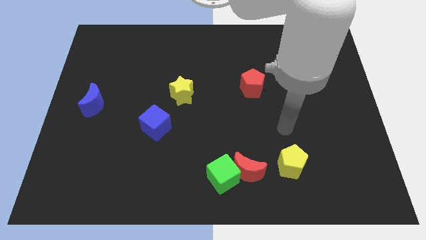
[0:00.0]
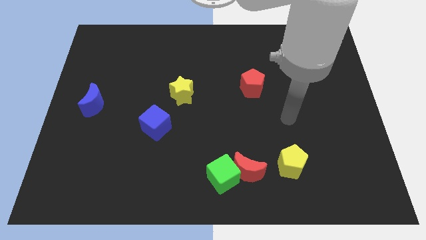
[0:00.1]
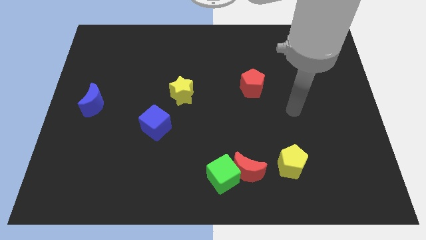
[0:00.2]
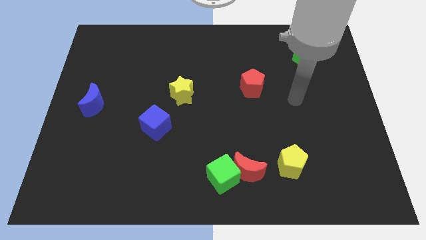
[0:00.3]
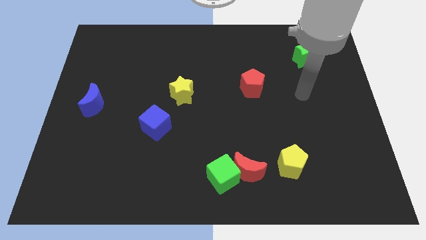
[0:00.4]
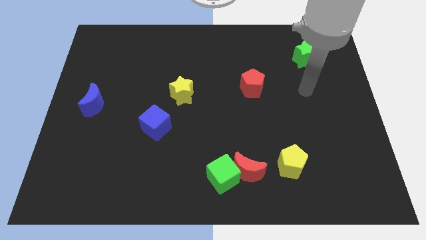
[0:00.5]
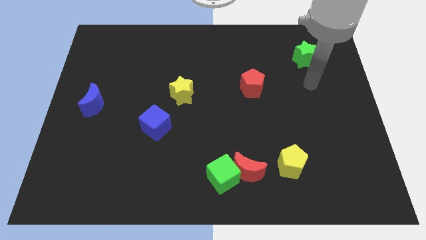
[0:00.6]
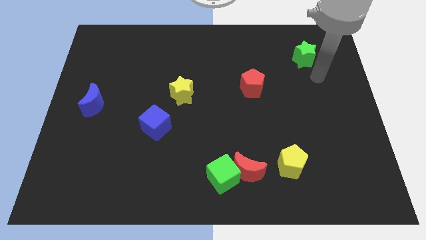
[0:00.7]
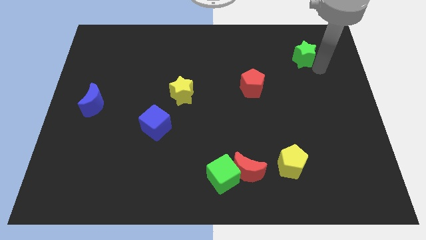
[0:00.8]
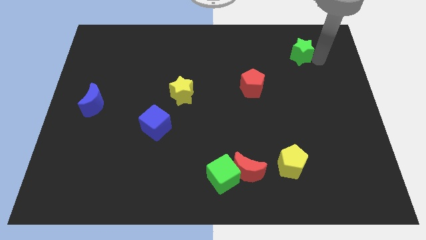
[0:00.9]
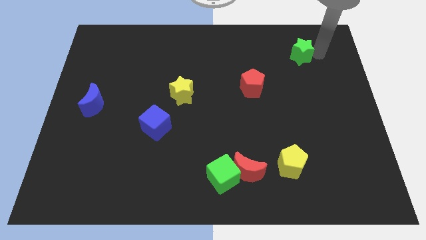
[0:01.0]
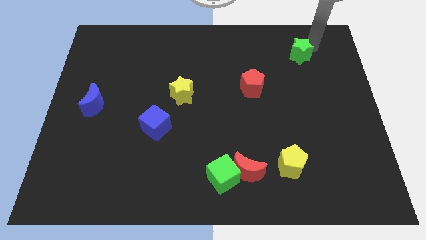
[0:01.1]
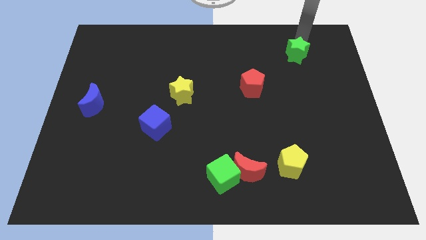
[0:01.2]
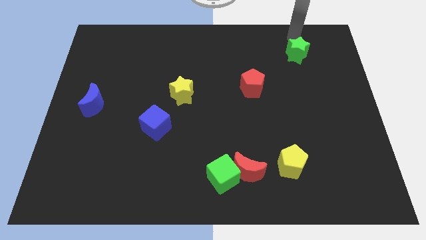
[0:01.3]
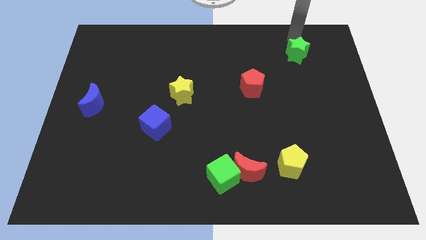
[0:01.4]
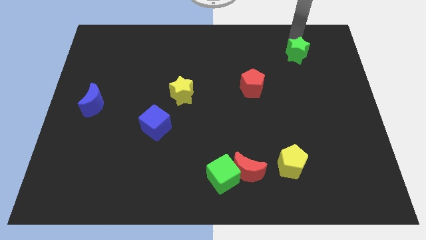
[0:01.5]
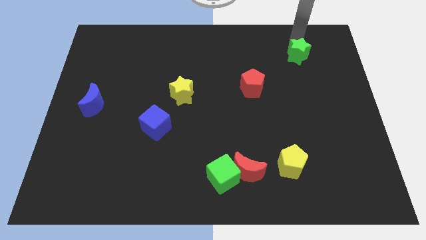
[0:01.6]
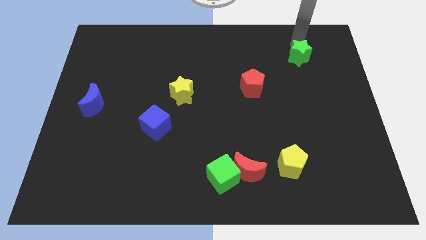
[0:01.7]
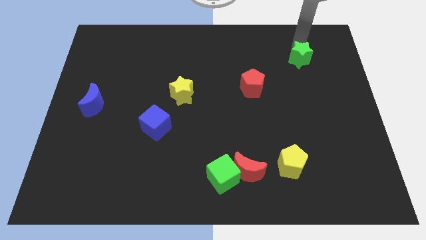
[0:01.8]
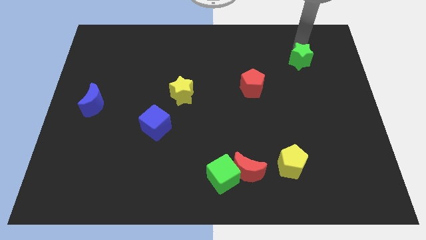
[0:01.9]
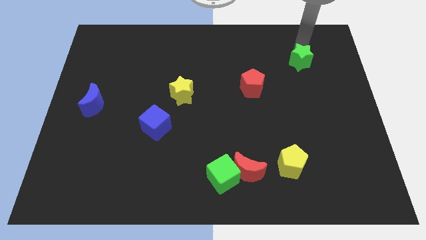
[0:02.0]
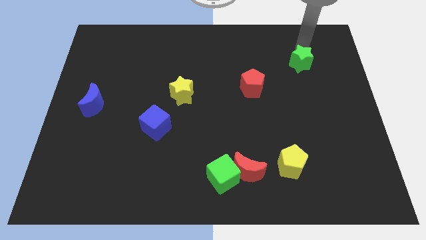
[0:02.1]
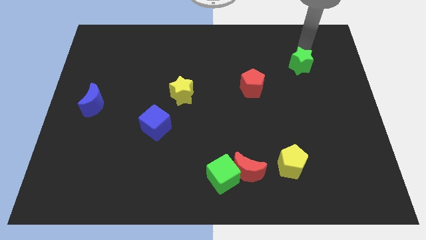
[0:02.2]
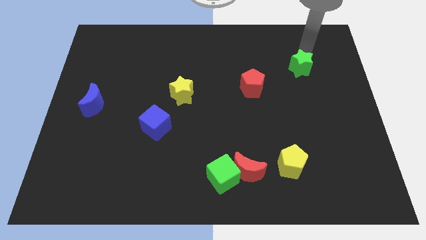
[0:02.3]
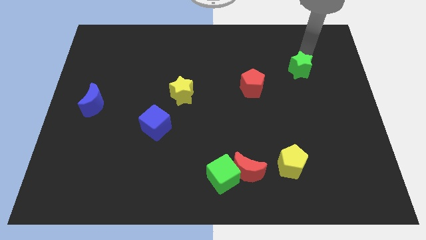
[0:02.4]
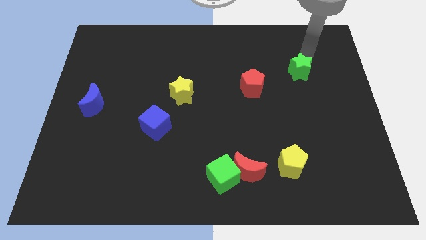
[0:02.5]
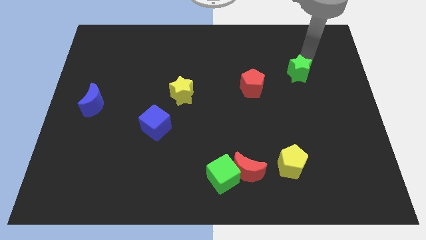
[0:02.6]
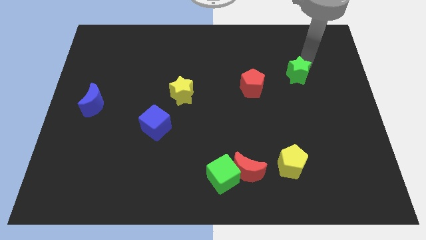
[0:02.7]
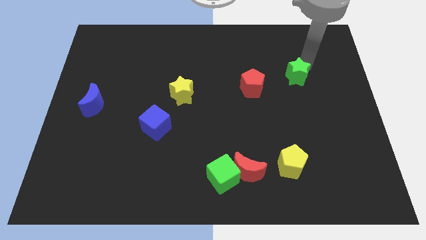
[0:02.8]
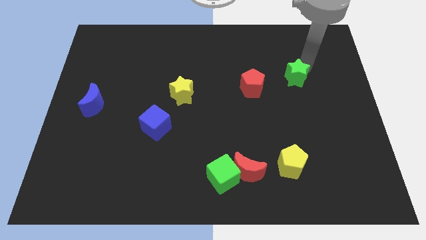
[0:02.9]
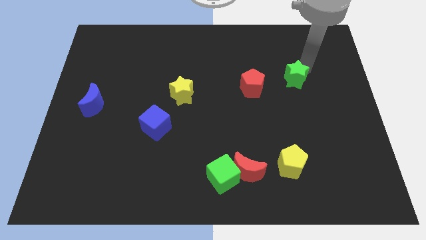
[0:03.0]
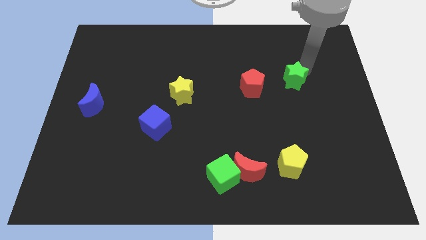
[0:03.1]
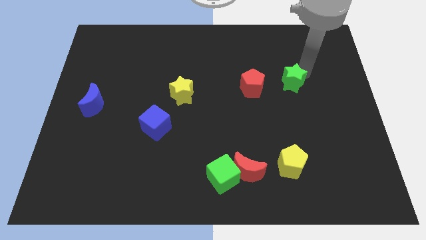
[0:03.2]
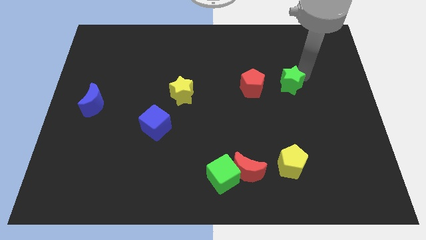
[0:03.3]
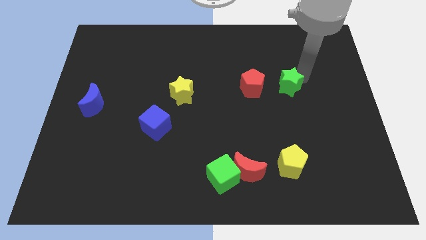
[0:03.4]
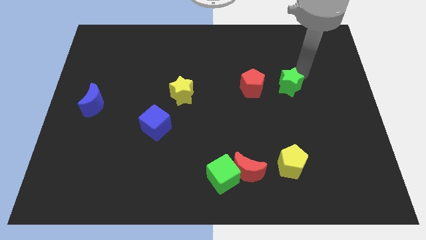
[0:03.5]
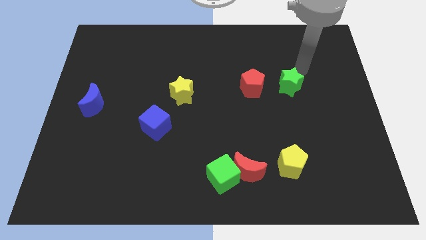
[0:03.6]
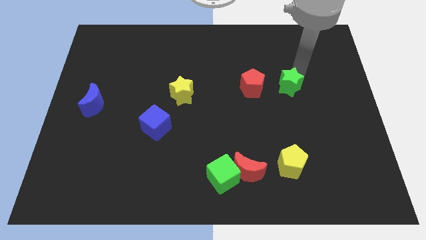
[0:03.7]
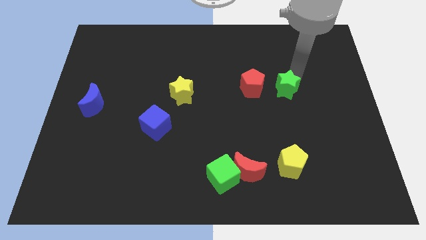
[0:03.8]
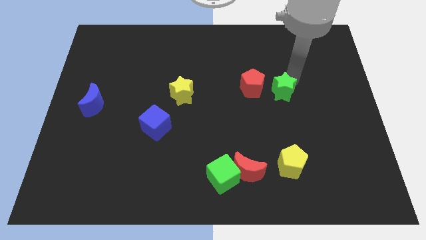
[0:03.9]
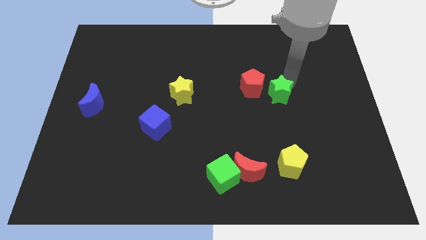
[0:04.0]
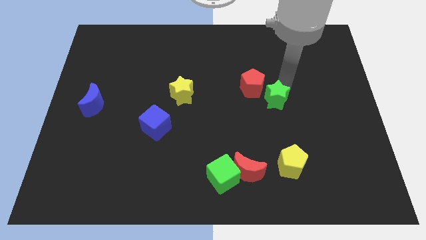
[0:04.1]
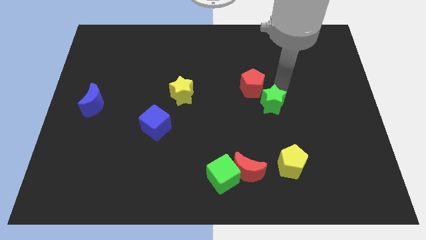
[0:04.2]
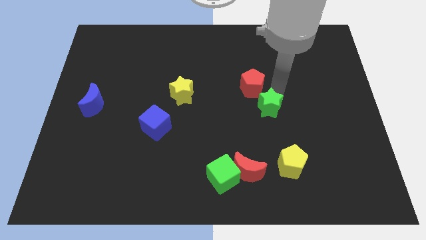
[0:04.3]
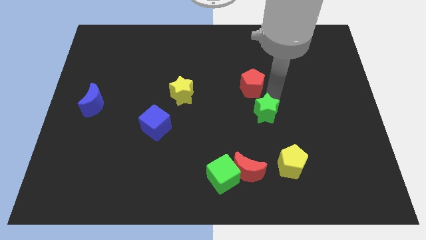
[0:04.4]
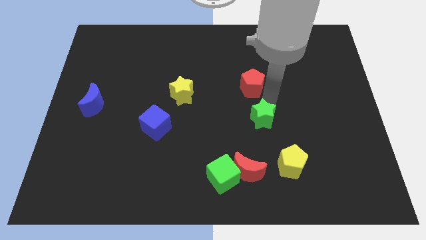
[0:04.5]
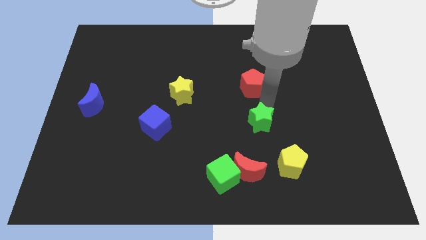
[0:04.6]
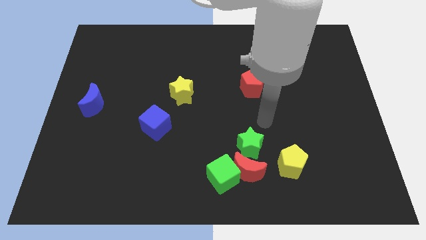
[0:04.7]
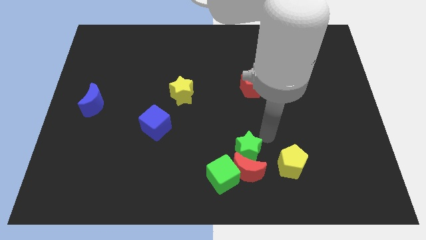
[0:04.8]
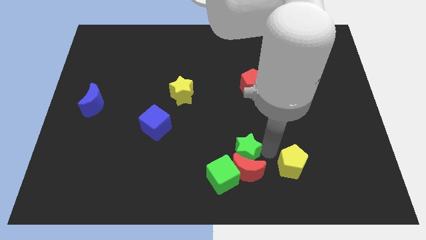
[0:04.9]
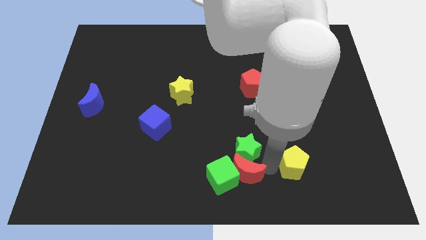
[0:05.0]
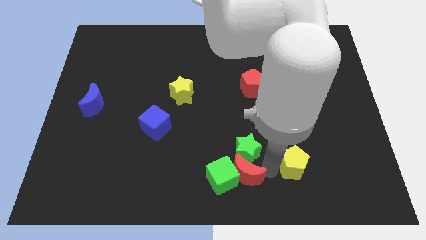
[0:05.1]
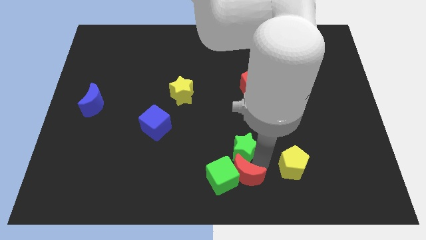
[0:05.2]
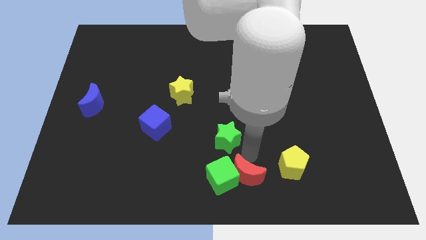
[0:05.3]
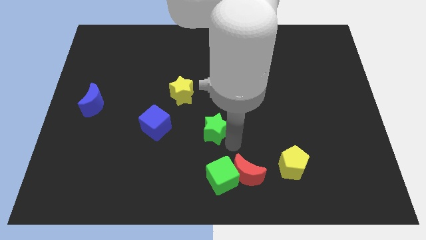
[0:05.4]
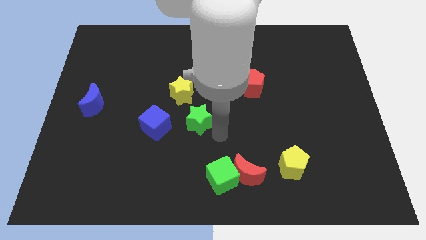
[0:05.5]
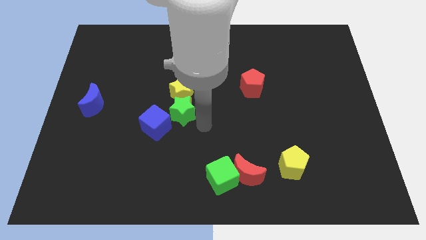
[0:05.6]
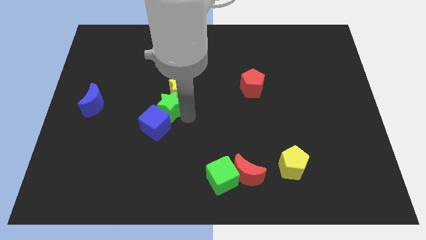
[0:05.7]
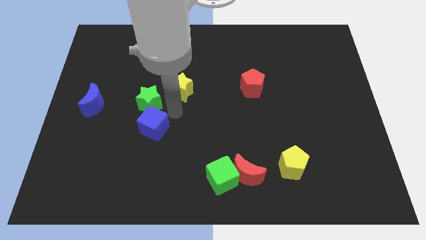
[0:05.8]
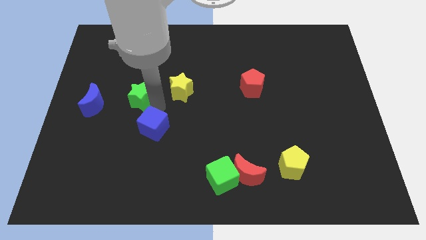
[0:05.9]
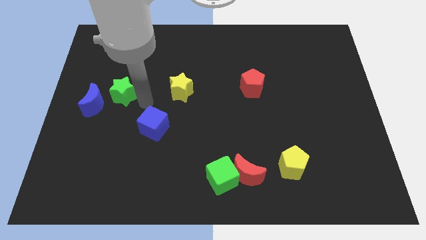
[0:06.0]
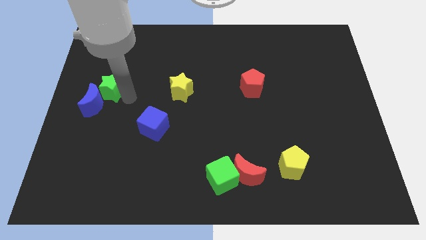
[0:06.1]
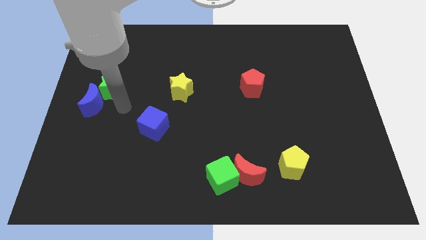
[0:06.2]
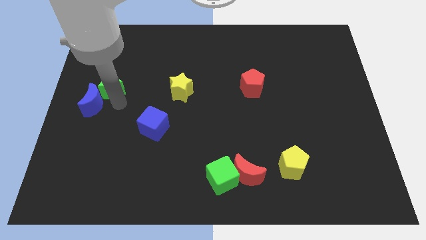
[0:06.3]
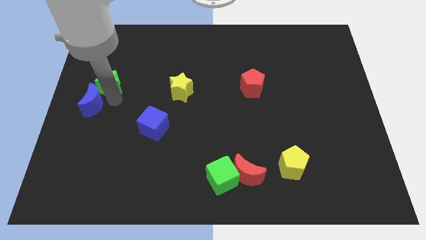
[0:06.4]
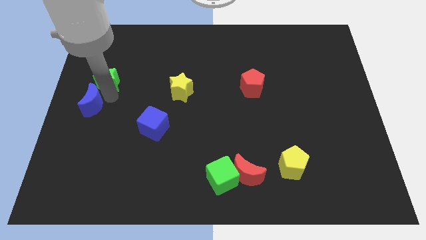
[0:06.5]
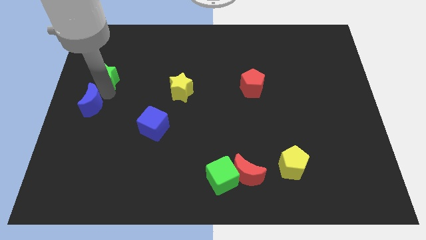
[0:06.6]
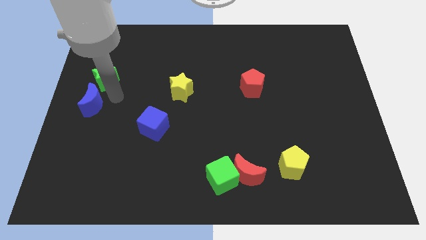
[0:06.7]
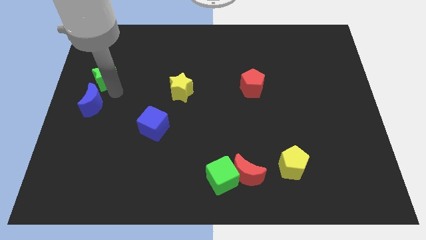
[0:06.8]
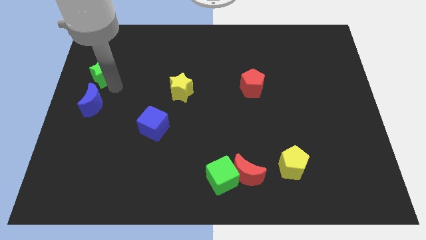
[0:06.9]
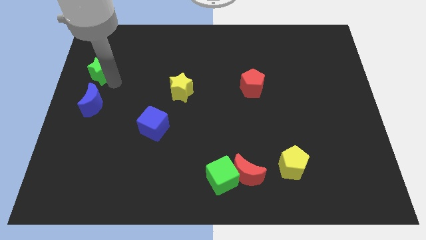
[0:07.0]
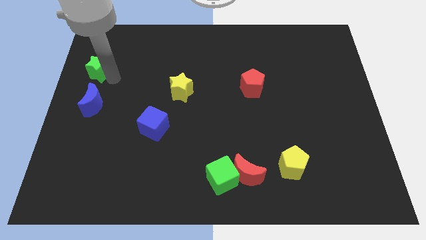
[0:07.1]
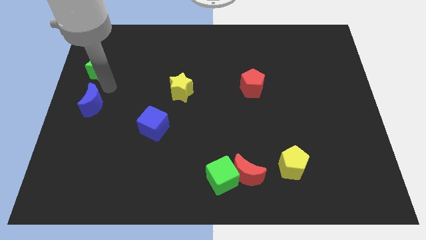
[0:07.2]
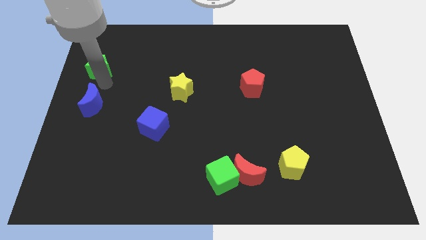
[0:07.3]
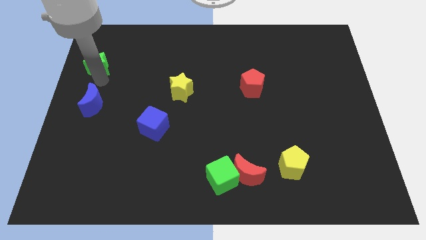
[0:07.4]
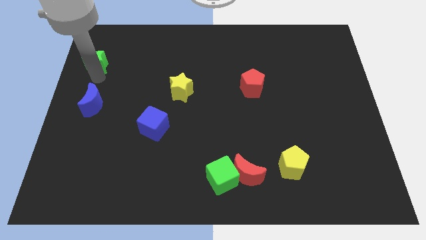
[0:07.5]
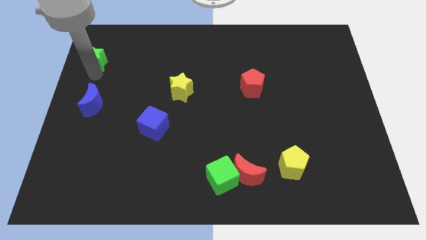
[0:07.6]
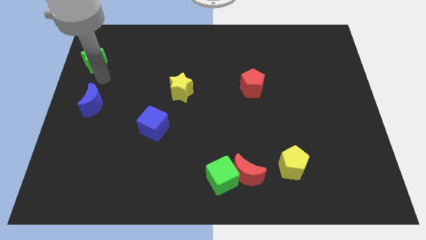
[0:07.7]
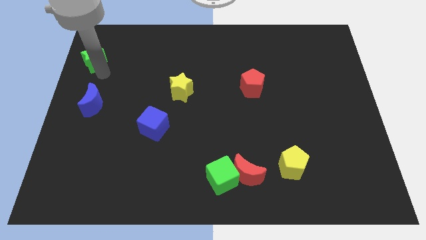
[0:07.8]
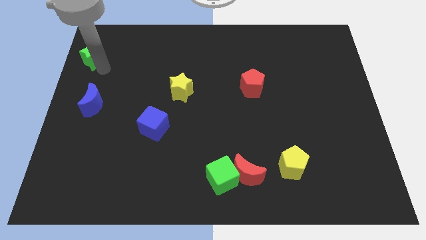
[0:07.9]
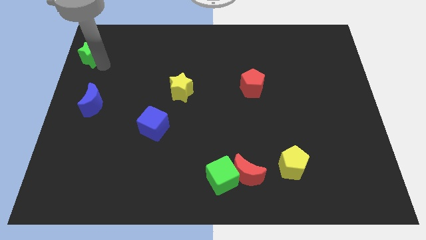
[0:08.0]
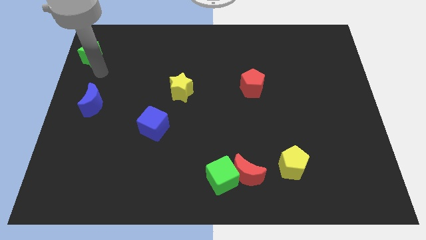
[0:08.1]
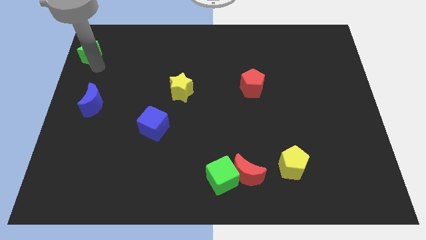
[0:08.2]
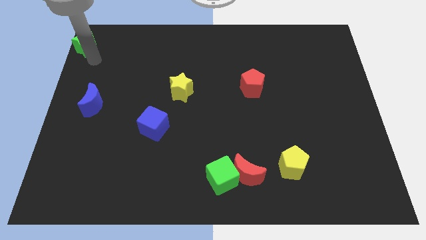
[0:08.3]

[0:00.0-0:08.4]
push the green star to the upper left corner
